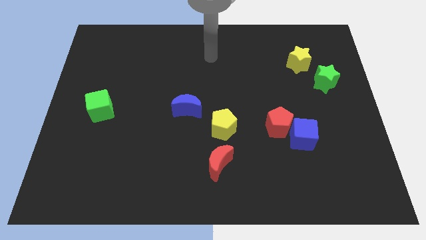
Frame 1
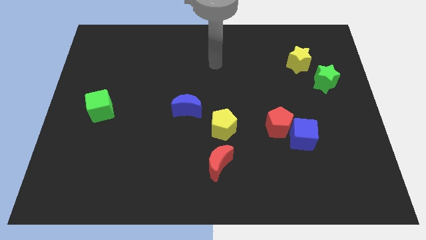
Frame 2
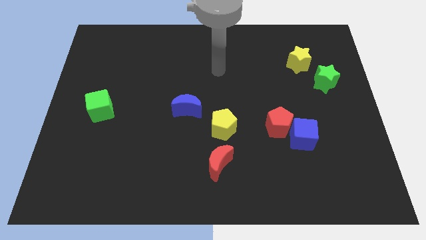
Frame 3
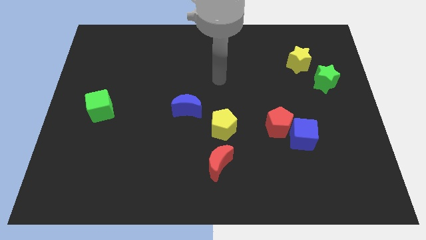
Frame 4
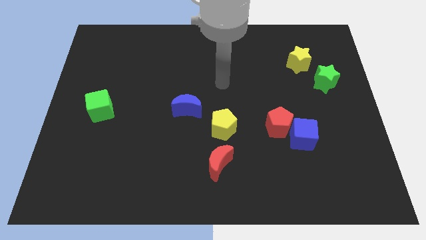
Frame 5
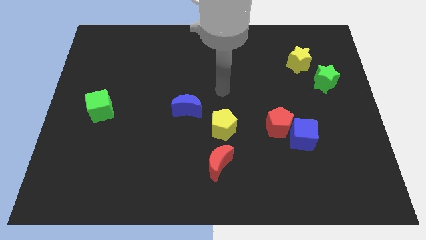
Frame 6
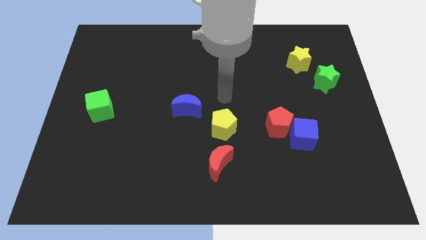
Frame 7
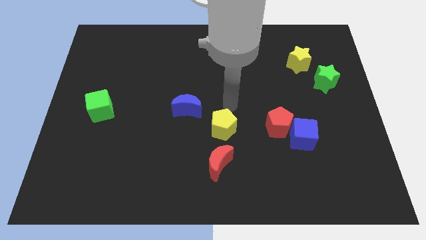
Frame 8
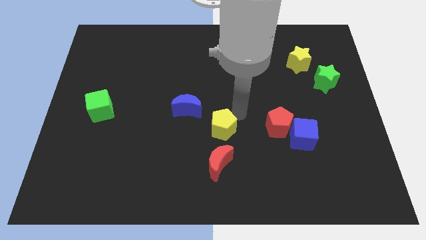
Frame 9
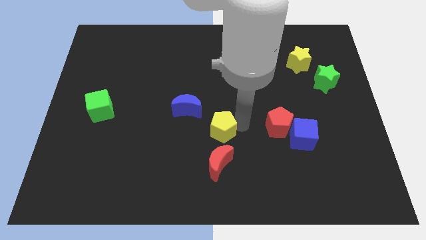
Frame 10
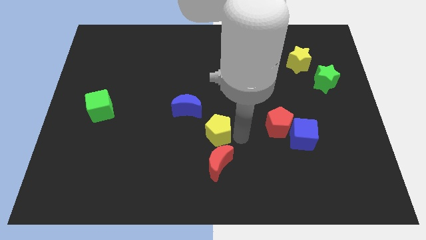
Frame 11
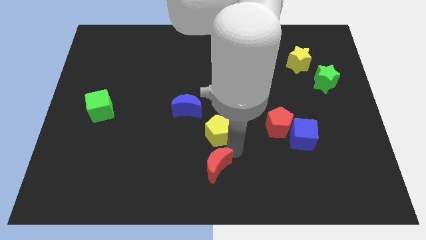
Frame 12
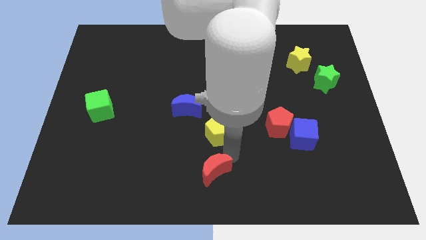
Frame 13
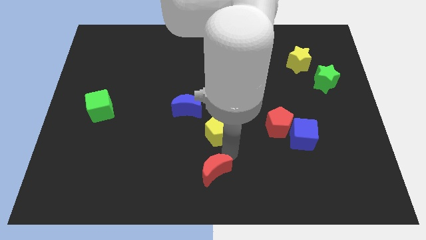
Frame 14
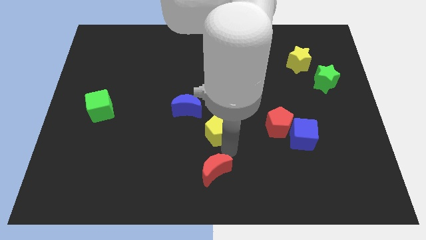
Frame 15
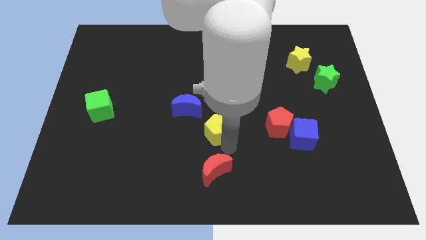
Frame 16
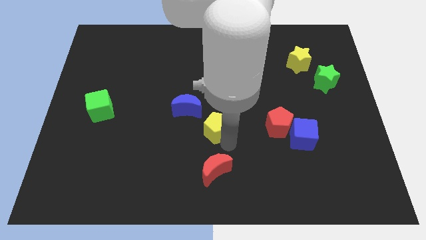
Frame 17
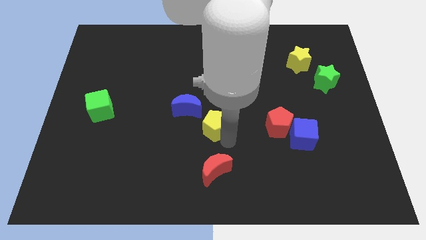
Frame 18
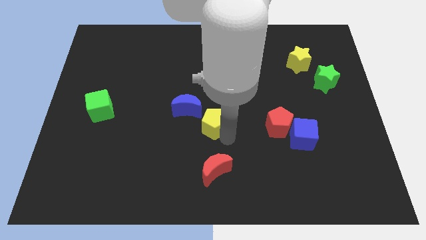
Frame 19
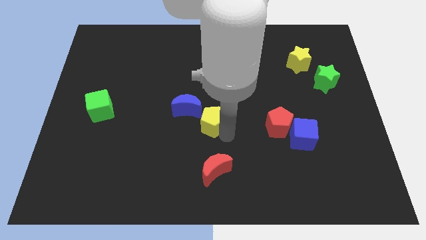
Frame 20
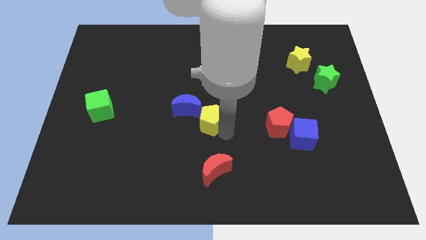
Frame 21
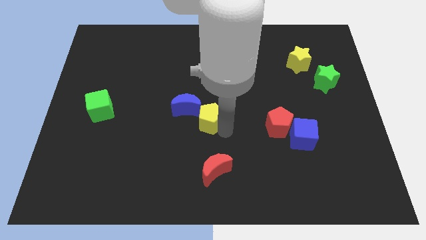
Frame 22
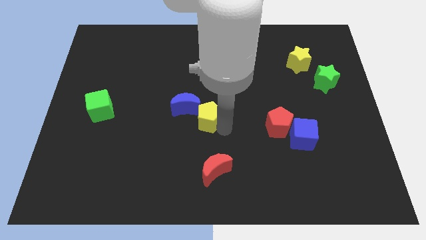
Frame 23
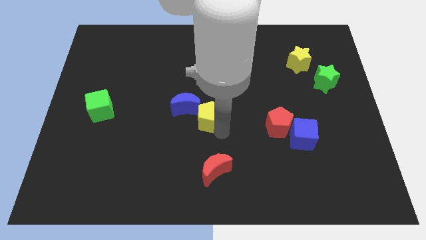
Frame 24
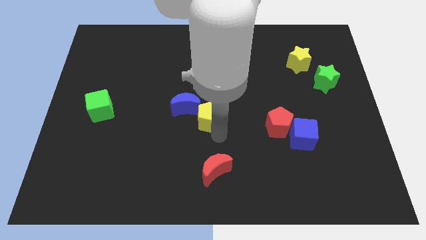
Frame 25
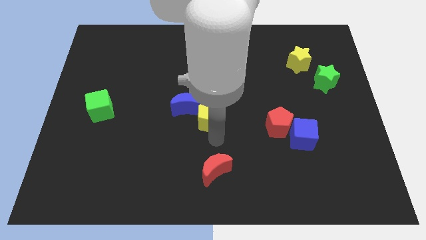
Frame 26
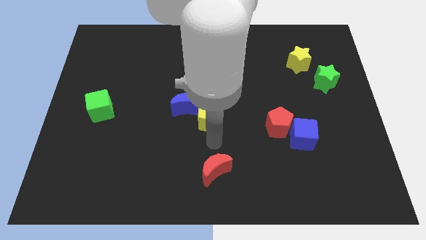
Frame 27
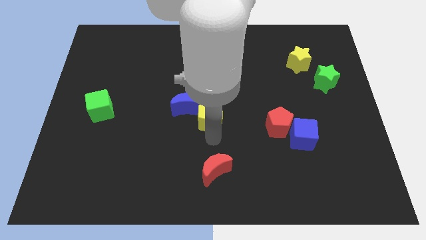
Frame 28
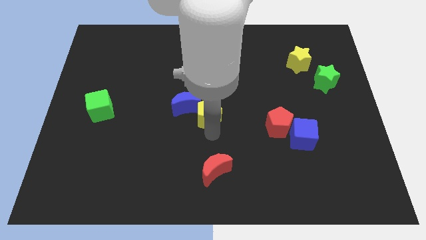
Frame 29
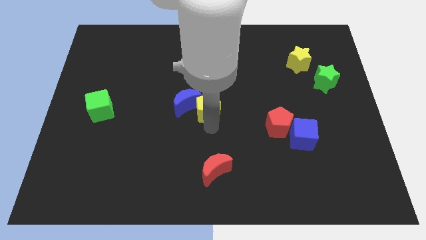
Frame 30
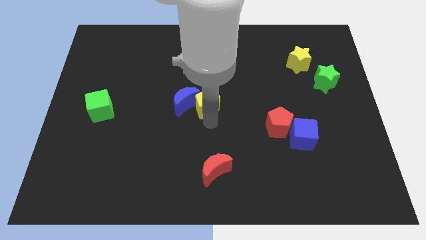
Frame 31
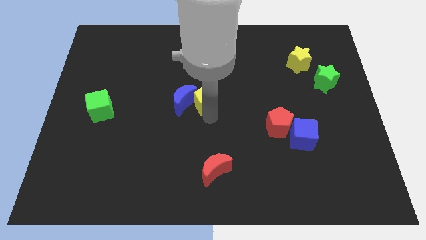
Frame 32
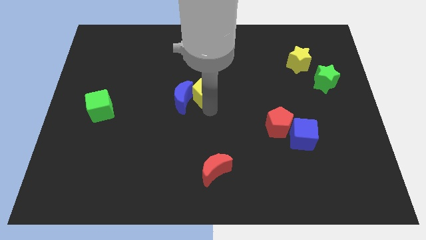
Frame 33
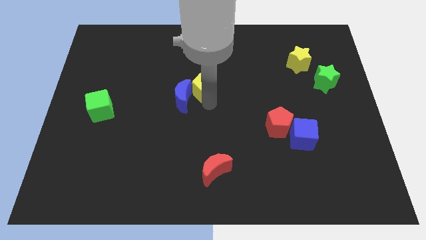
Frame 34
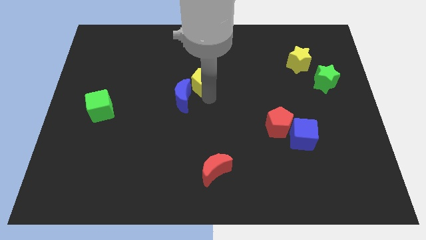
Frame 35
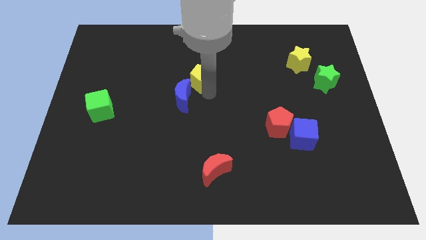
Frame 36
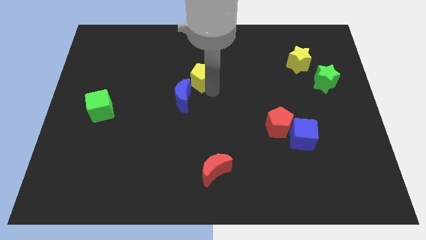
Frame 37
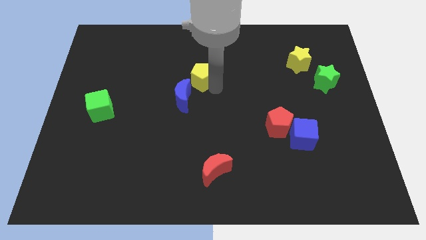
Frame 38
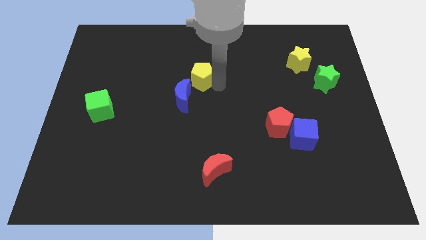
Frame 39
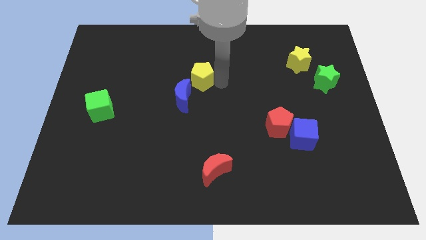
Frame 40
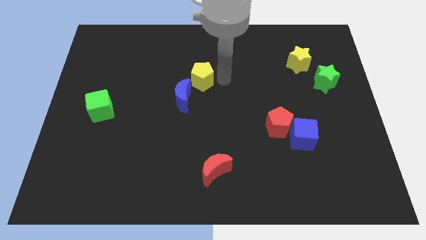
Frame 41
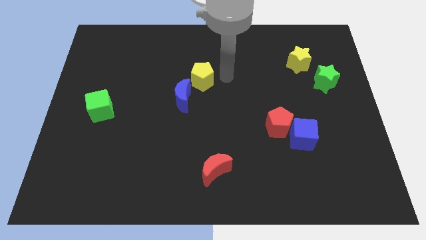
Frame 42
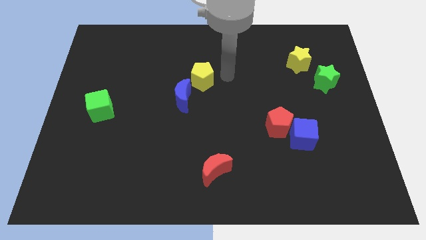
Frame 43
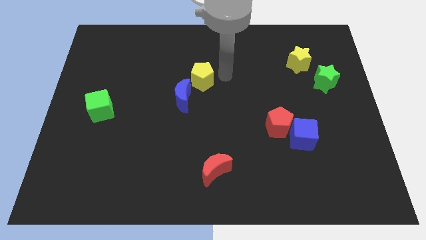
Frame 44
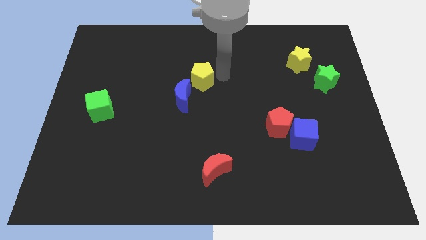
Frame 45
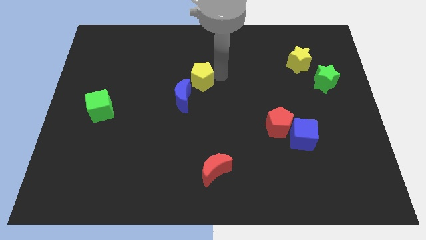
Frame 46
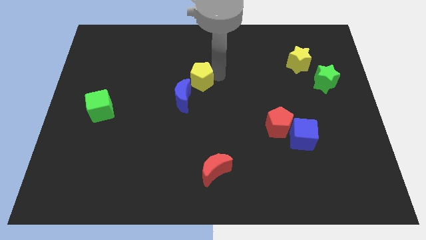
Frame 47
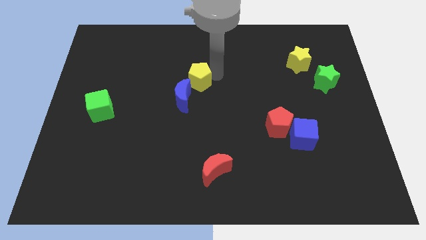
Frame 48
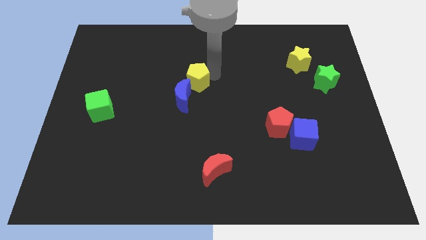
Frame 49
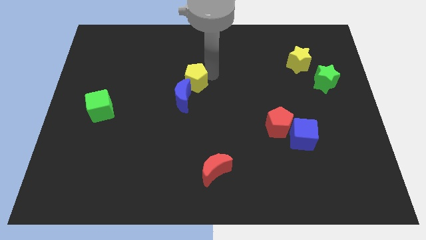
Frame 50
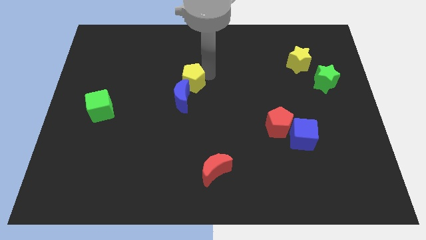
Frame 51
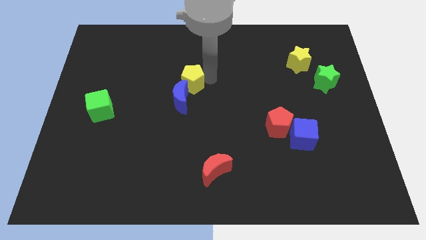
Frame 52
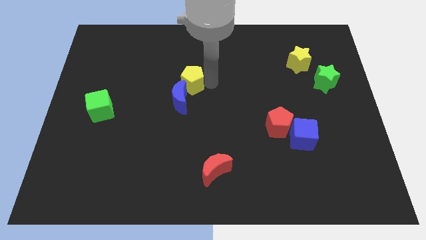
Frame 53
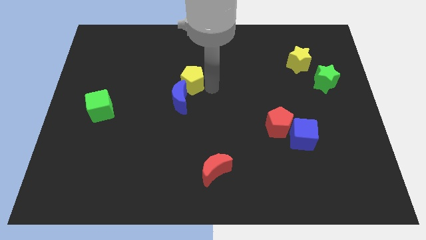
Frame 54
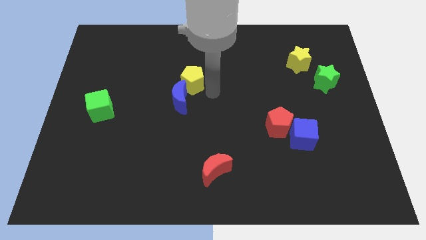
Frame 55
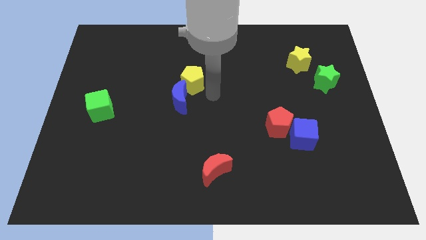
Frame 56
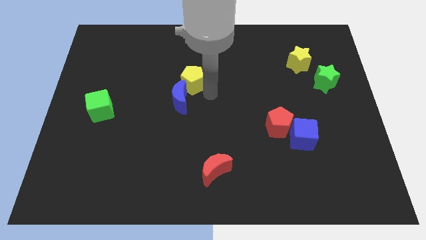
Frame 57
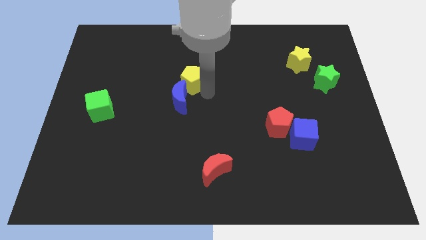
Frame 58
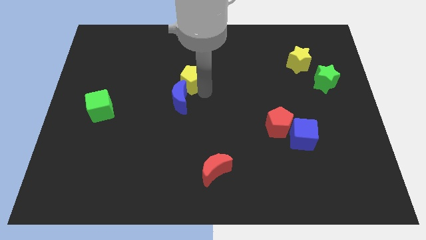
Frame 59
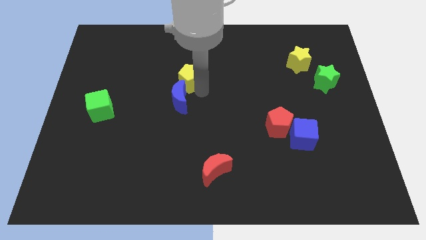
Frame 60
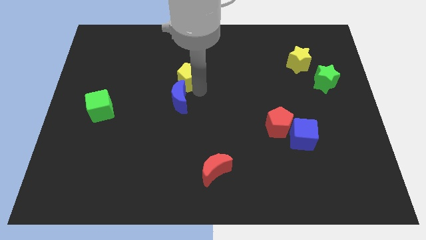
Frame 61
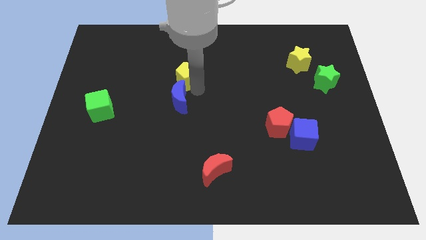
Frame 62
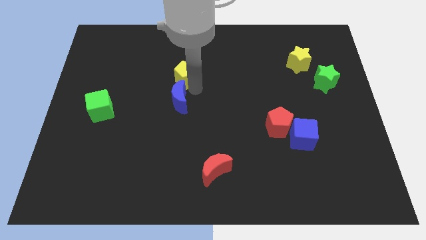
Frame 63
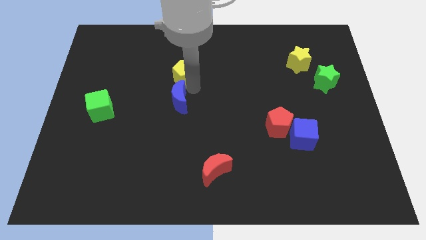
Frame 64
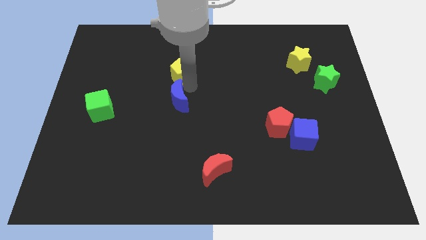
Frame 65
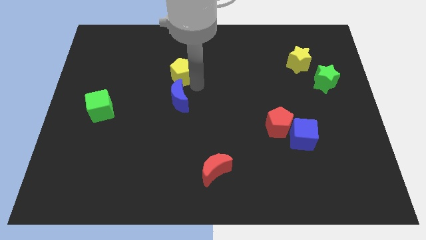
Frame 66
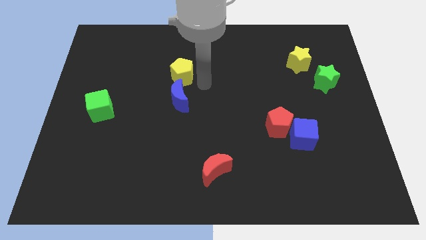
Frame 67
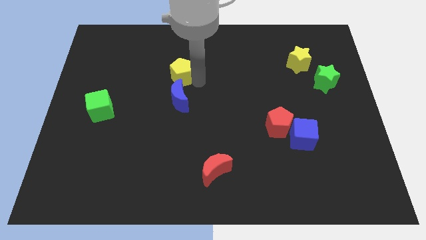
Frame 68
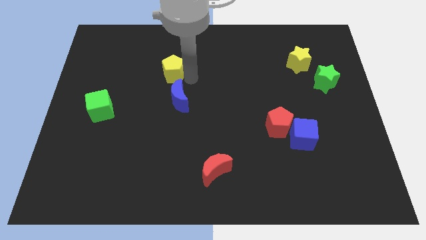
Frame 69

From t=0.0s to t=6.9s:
move the yellow pentagon upwards and left diagonally

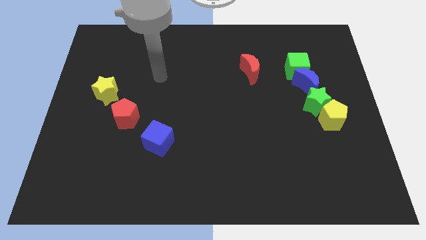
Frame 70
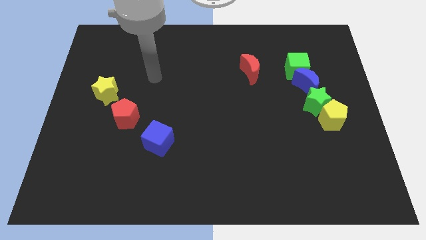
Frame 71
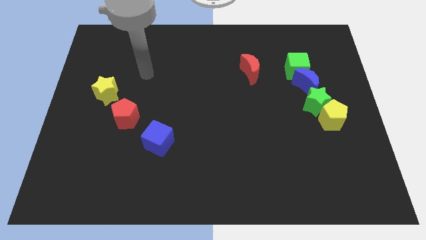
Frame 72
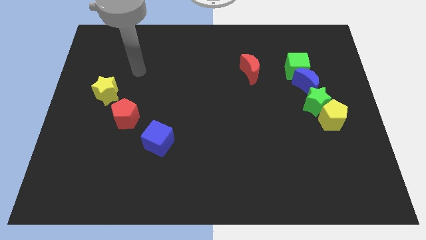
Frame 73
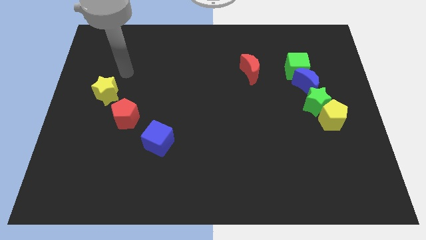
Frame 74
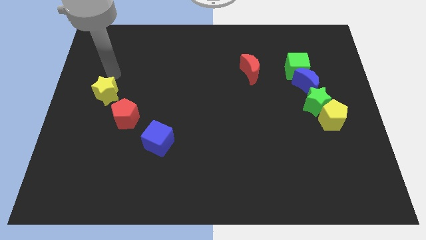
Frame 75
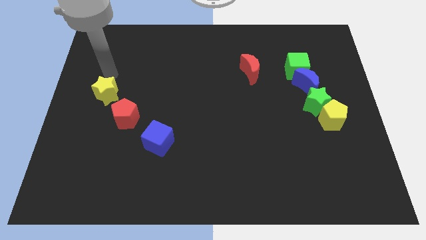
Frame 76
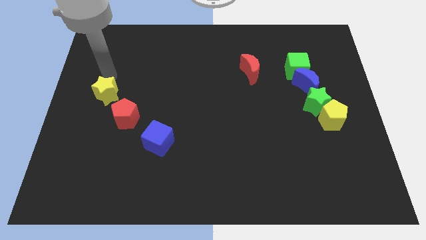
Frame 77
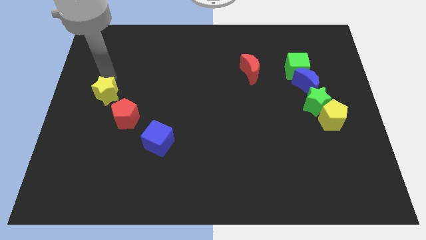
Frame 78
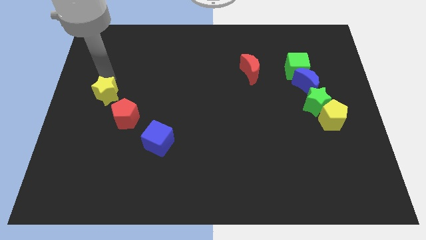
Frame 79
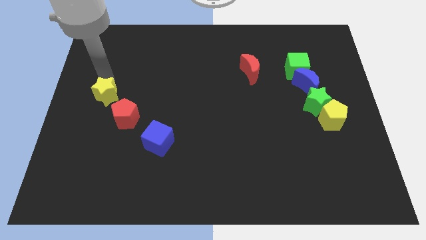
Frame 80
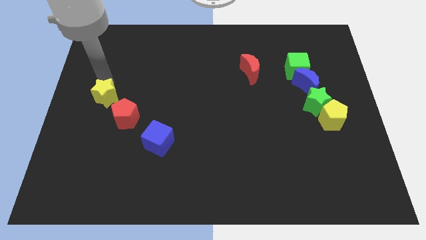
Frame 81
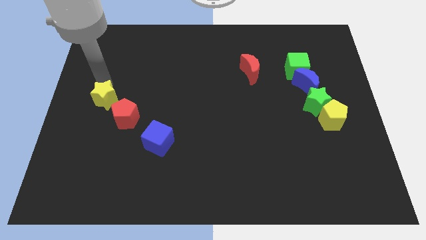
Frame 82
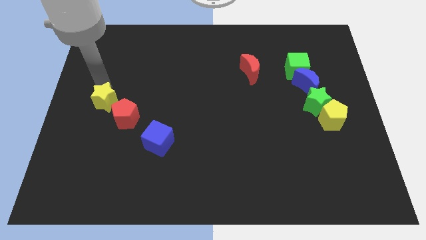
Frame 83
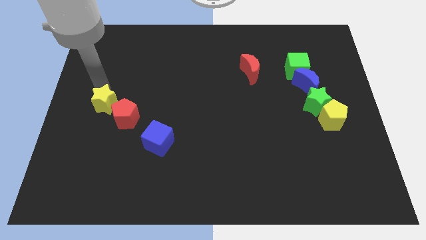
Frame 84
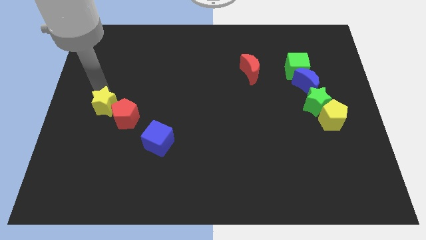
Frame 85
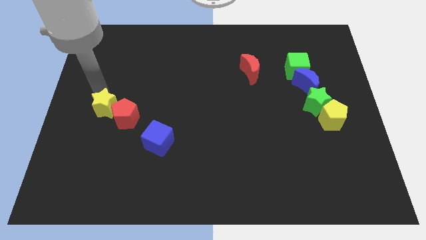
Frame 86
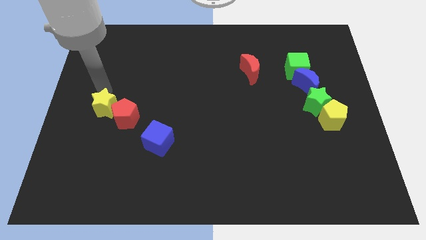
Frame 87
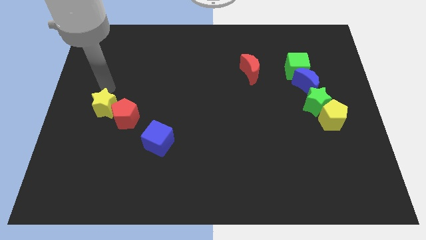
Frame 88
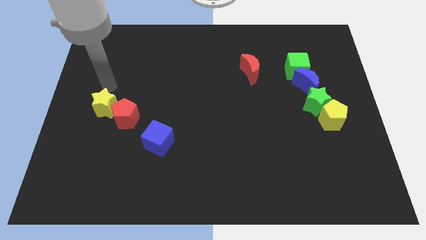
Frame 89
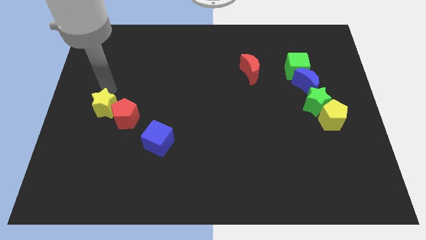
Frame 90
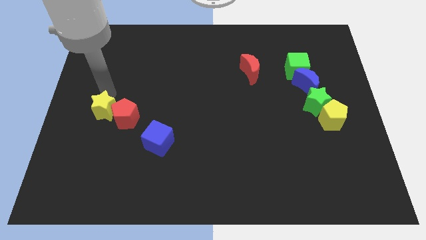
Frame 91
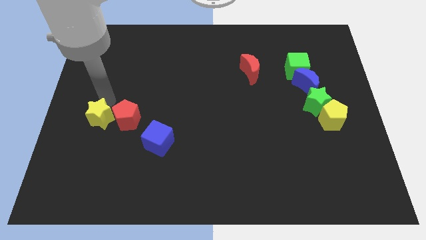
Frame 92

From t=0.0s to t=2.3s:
move the yellow star down somewhat
